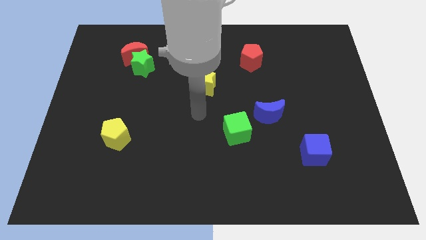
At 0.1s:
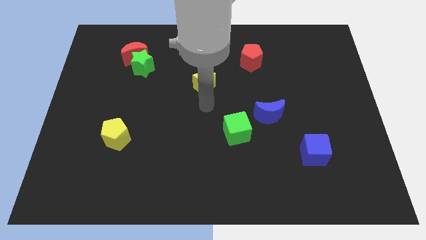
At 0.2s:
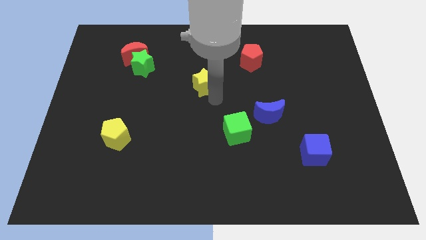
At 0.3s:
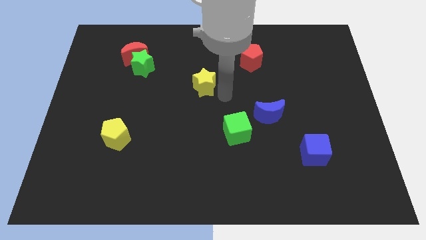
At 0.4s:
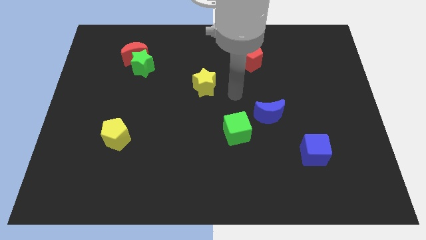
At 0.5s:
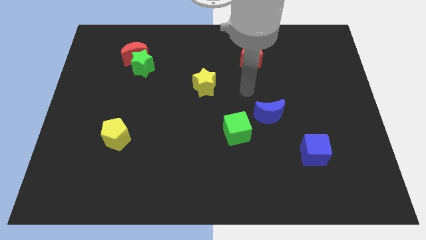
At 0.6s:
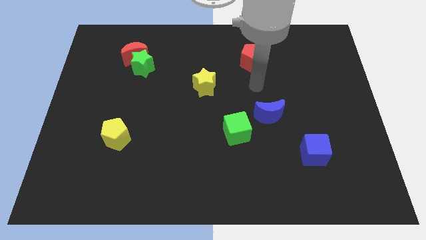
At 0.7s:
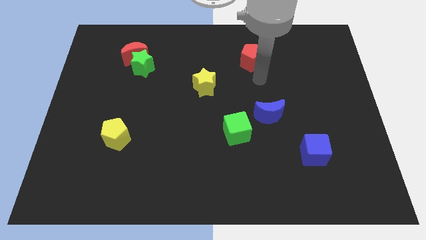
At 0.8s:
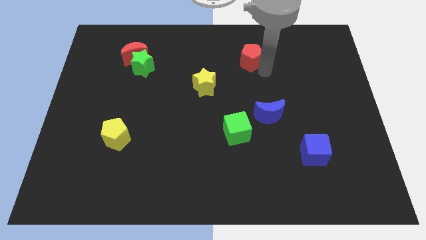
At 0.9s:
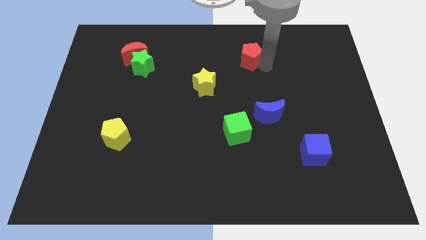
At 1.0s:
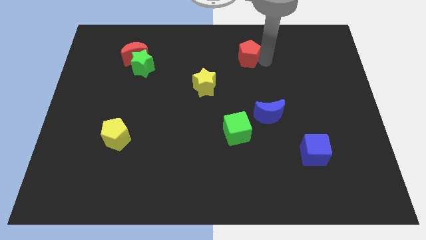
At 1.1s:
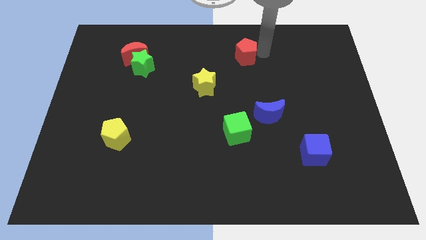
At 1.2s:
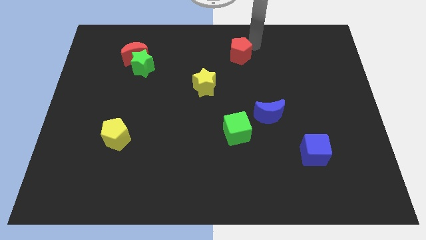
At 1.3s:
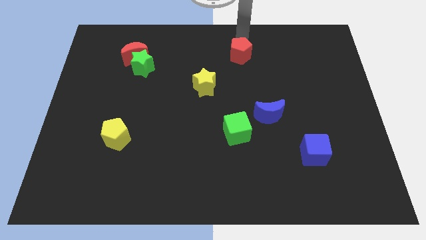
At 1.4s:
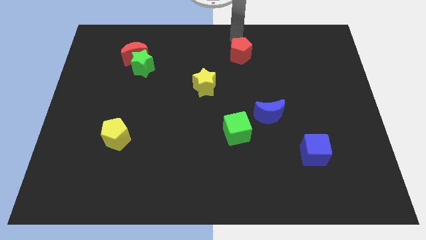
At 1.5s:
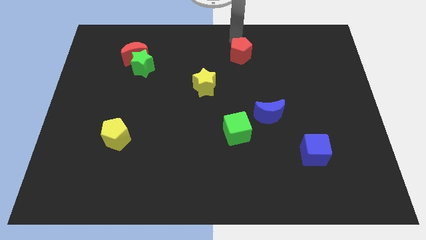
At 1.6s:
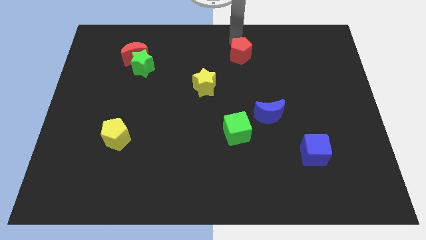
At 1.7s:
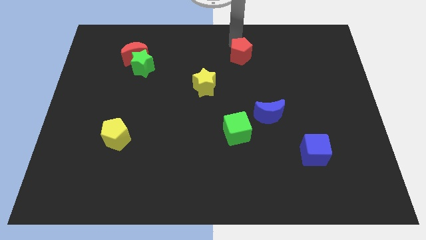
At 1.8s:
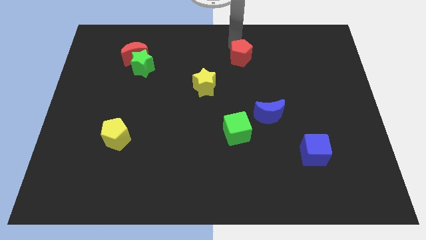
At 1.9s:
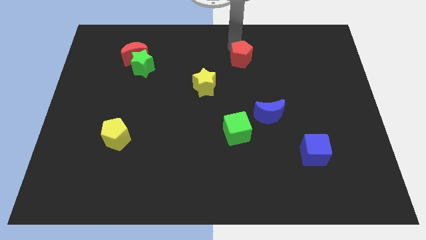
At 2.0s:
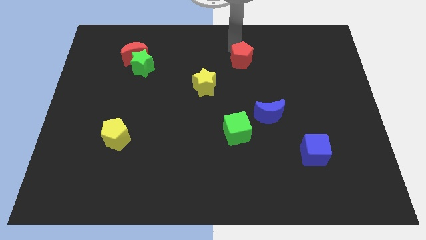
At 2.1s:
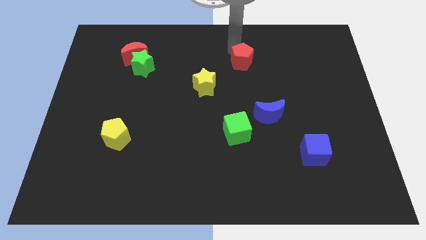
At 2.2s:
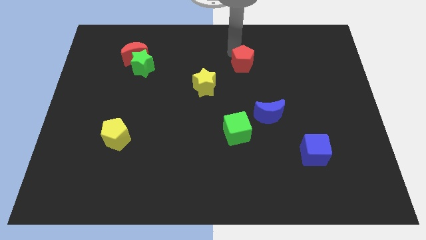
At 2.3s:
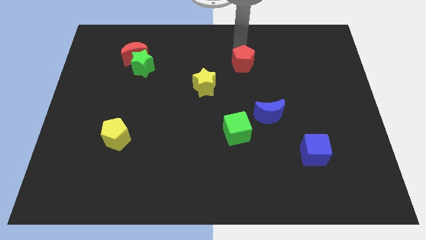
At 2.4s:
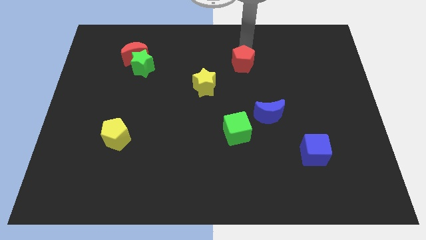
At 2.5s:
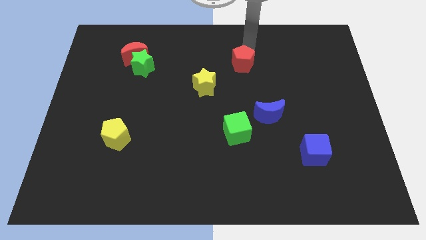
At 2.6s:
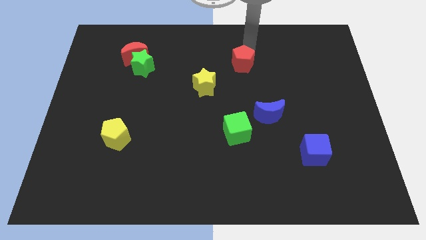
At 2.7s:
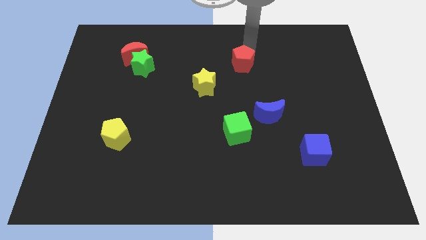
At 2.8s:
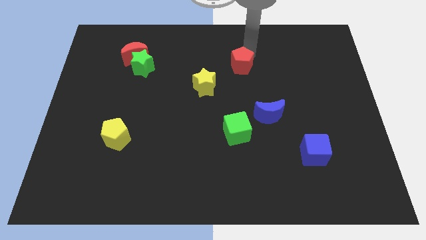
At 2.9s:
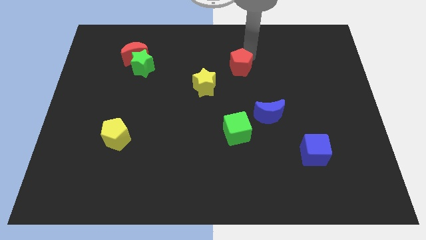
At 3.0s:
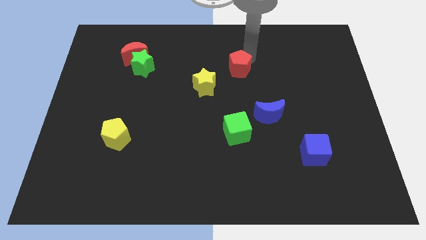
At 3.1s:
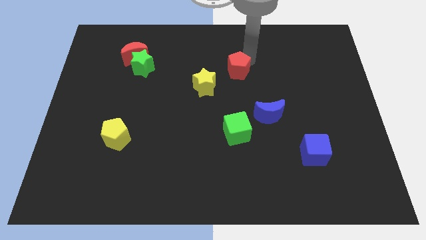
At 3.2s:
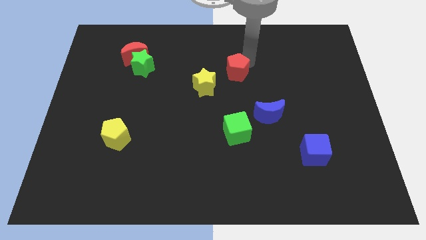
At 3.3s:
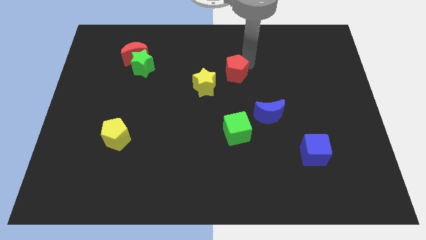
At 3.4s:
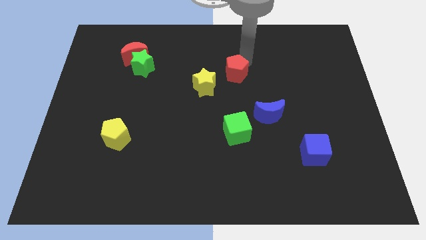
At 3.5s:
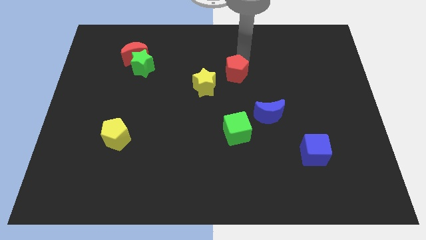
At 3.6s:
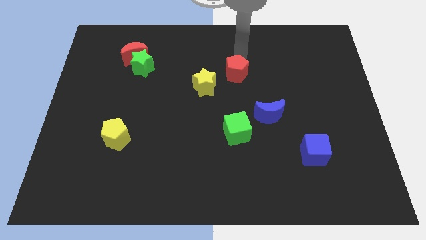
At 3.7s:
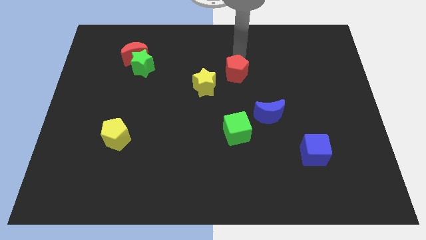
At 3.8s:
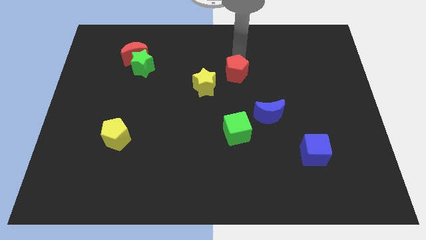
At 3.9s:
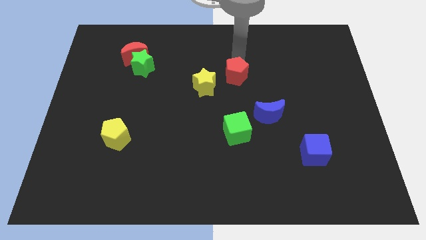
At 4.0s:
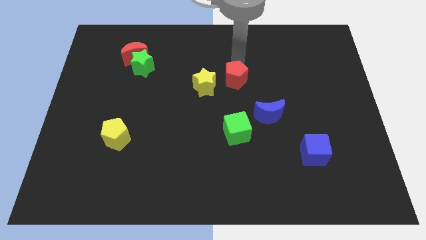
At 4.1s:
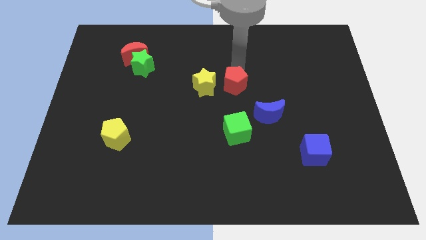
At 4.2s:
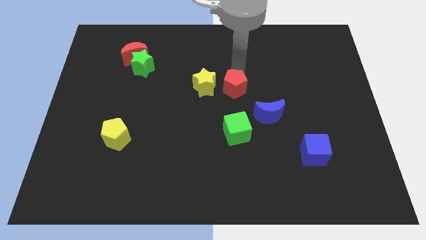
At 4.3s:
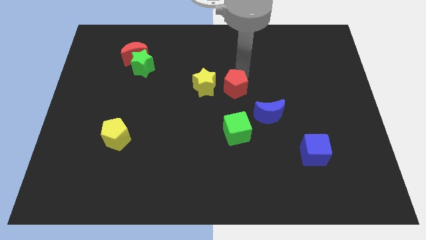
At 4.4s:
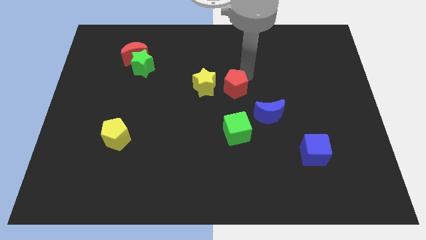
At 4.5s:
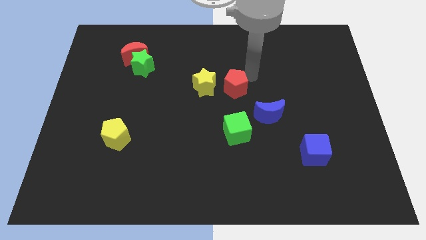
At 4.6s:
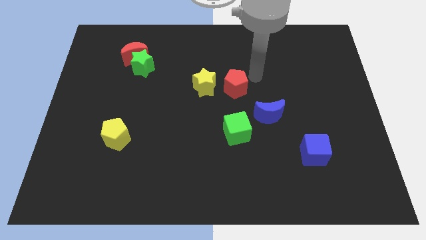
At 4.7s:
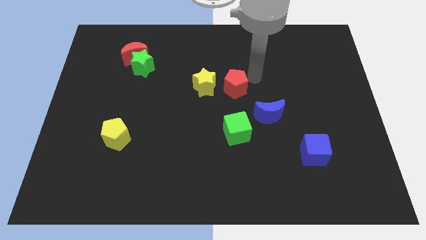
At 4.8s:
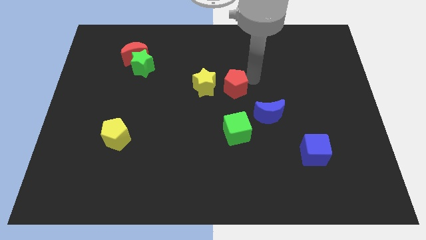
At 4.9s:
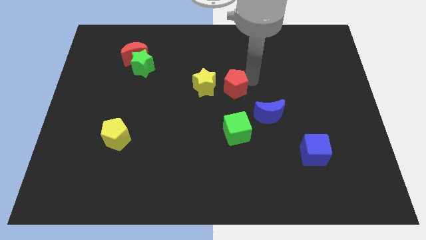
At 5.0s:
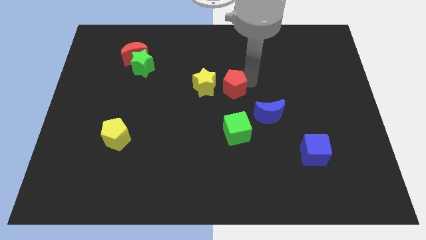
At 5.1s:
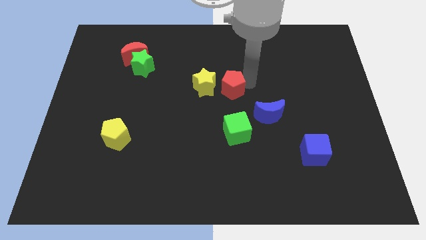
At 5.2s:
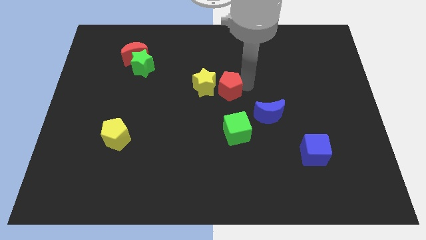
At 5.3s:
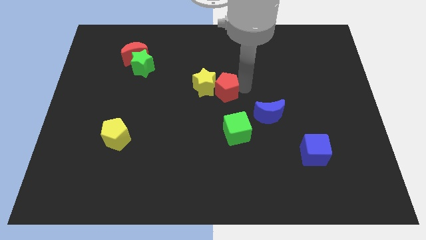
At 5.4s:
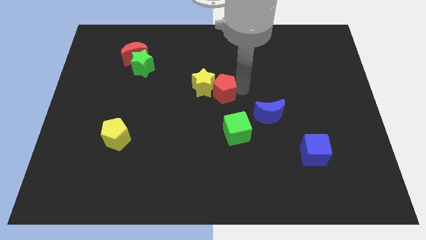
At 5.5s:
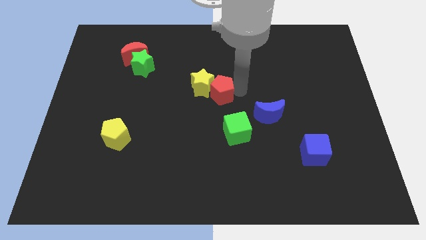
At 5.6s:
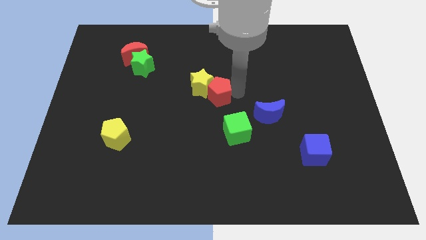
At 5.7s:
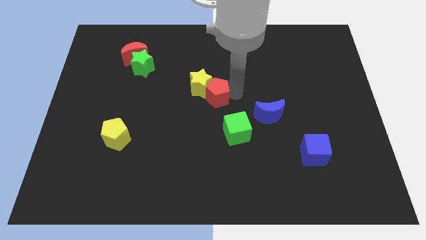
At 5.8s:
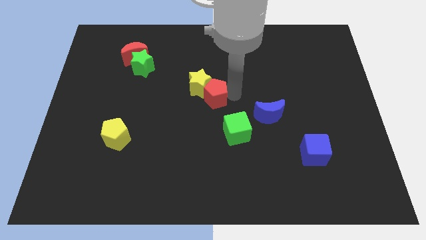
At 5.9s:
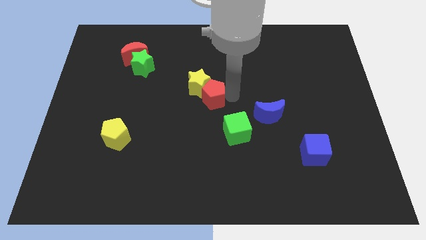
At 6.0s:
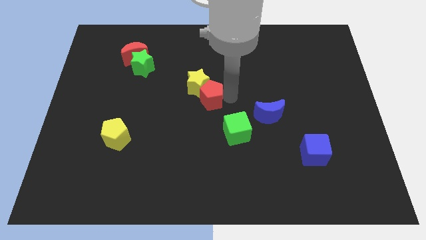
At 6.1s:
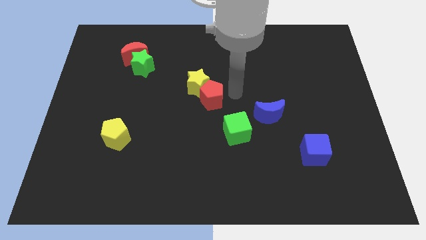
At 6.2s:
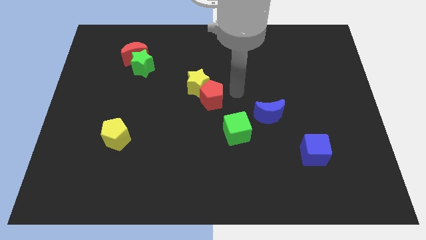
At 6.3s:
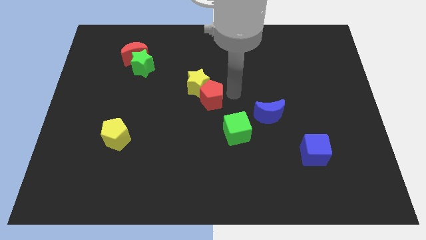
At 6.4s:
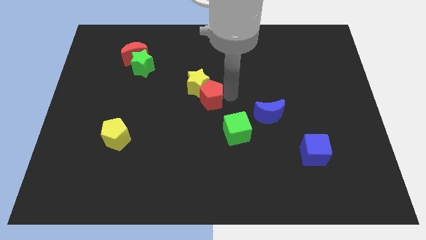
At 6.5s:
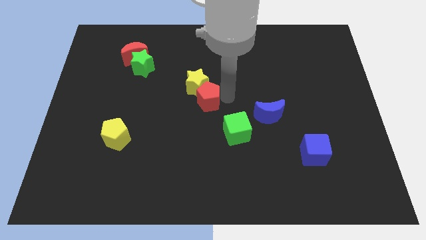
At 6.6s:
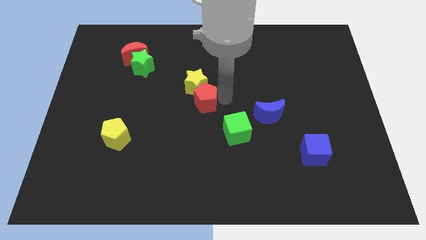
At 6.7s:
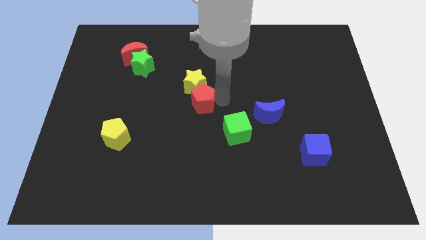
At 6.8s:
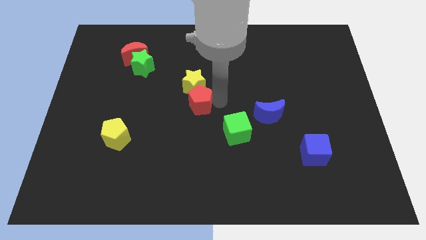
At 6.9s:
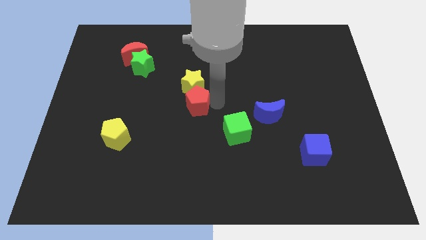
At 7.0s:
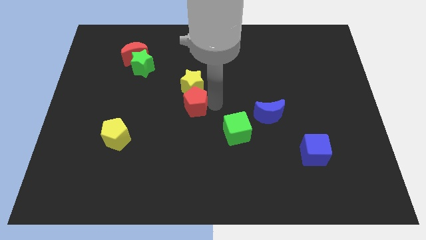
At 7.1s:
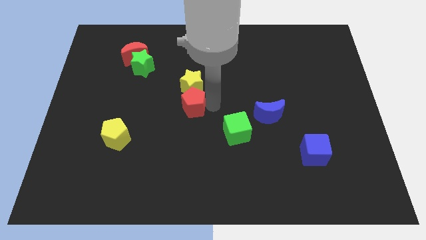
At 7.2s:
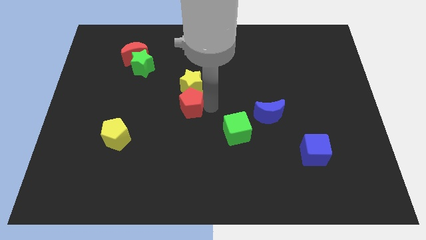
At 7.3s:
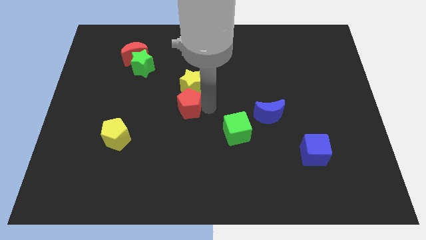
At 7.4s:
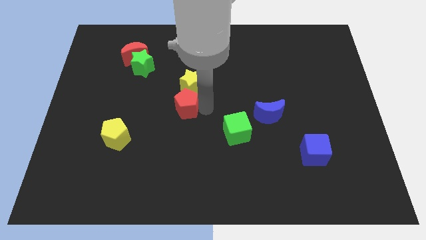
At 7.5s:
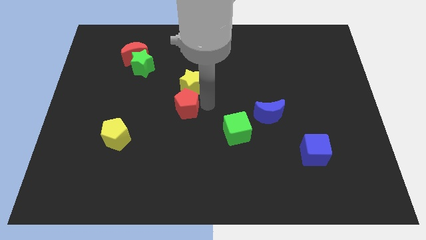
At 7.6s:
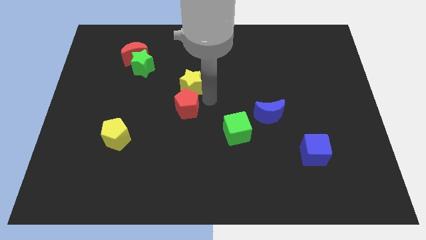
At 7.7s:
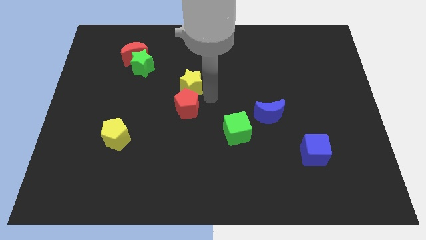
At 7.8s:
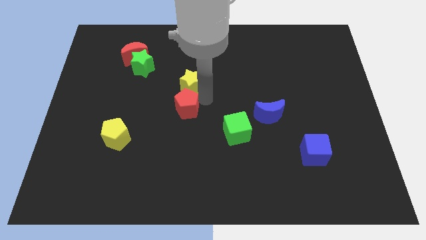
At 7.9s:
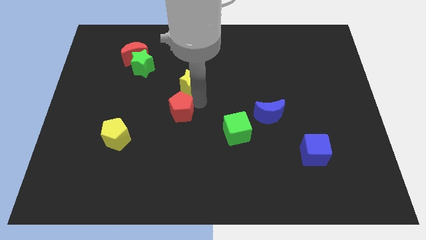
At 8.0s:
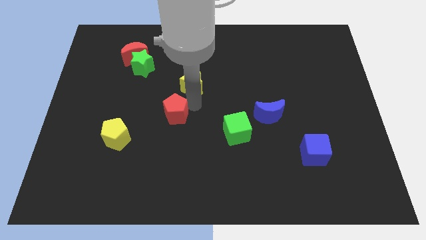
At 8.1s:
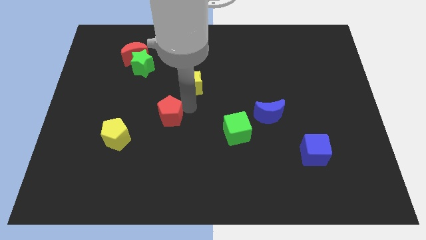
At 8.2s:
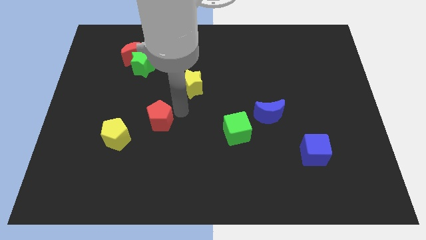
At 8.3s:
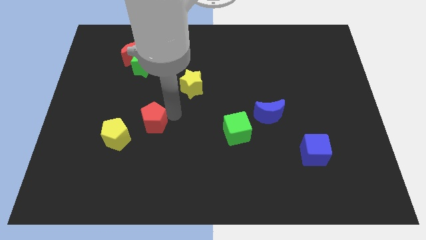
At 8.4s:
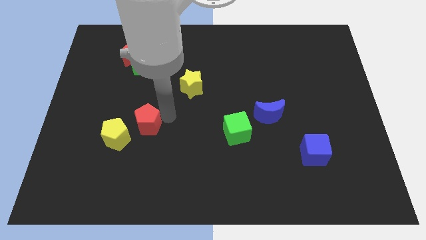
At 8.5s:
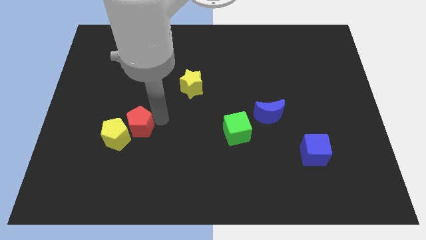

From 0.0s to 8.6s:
push the red pentagon next to the yellow pentagon
